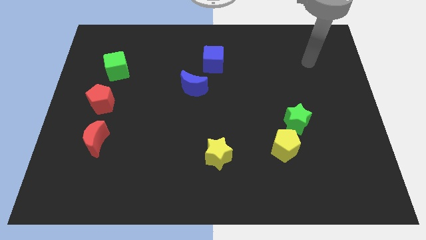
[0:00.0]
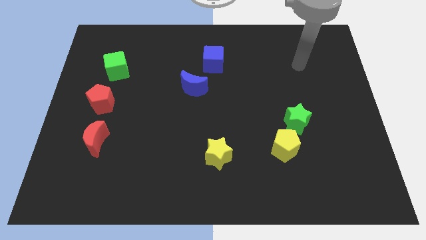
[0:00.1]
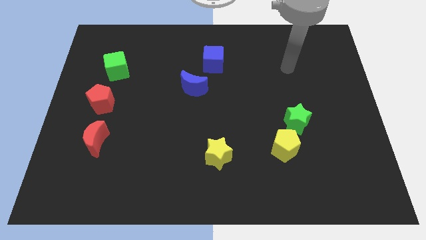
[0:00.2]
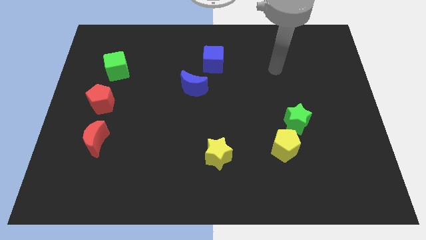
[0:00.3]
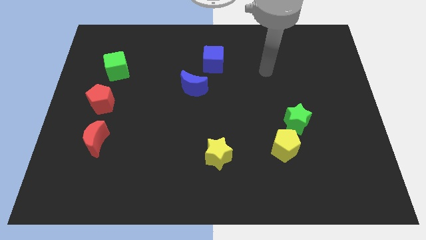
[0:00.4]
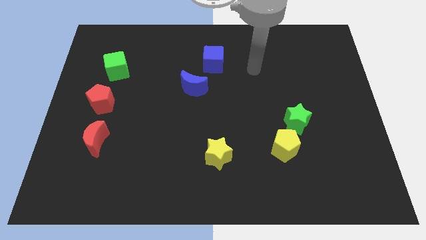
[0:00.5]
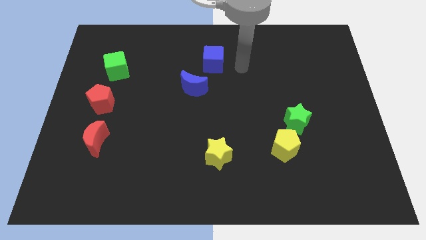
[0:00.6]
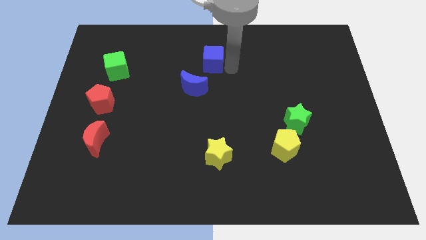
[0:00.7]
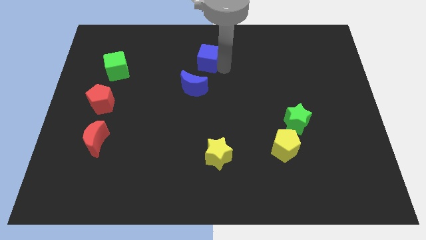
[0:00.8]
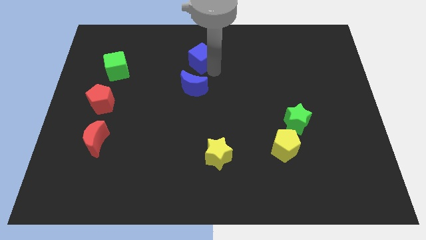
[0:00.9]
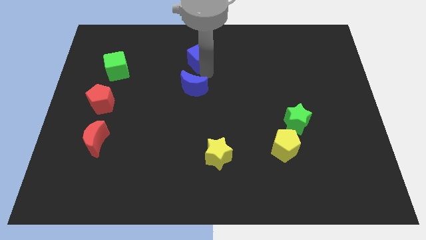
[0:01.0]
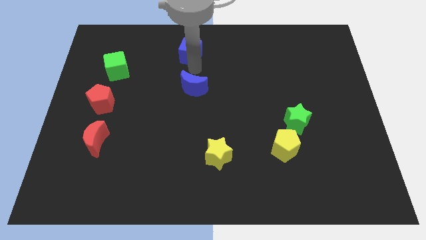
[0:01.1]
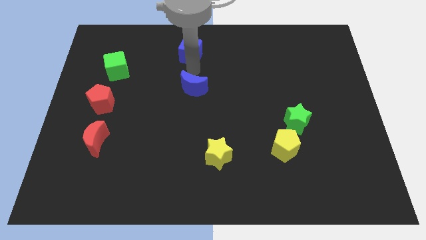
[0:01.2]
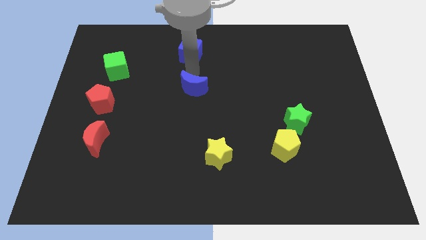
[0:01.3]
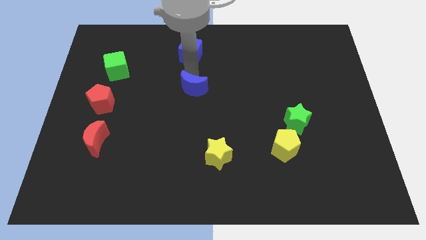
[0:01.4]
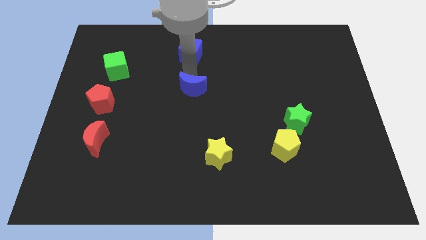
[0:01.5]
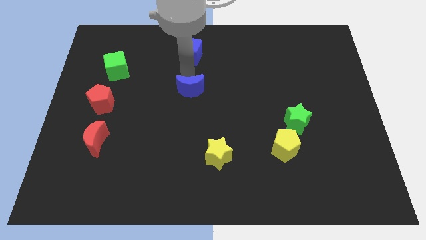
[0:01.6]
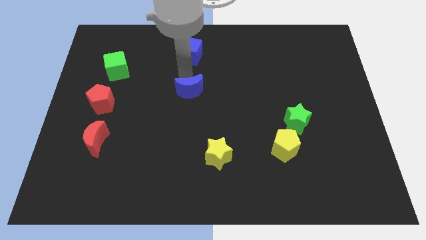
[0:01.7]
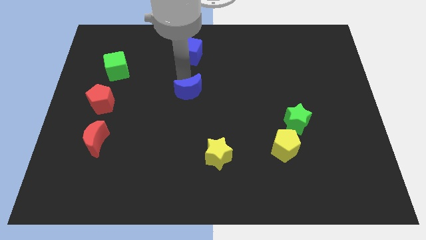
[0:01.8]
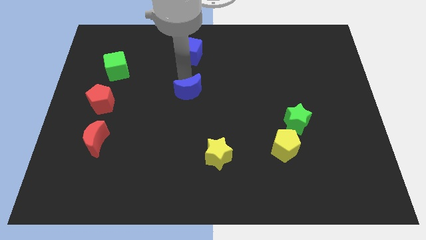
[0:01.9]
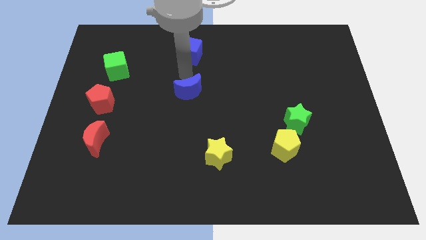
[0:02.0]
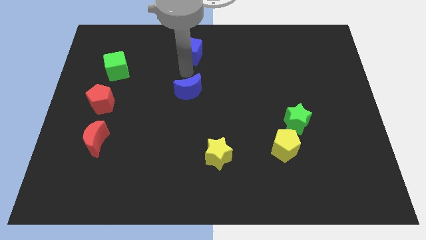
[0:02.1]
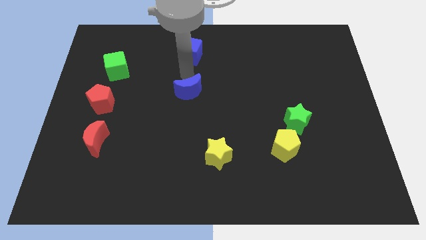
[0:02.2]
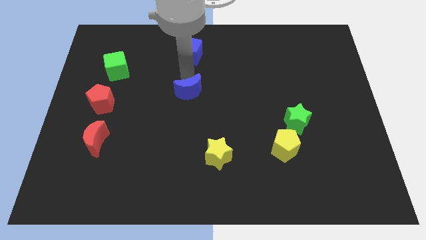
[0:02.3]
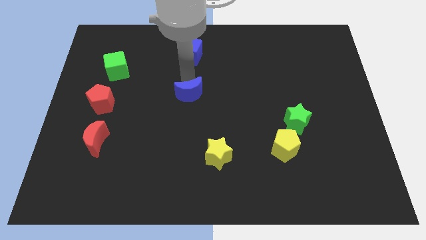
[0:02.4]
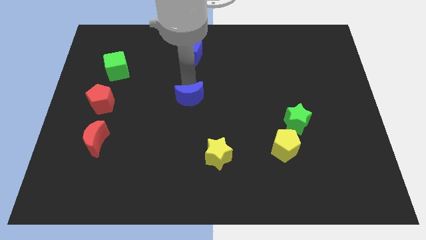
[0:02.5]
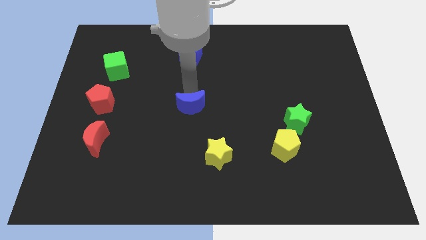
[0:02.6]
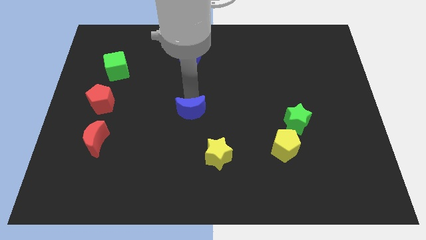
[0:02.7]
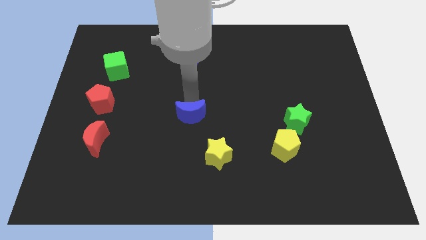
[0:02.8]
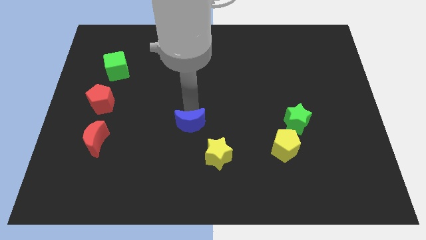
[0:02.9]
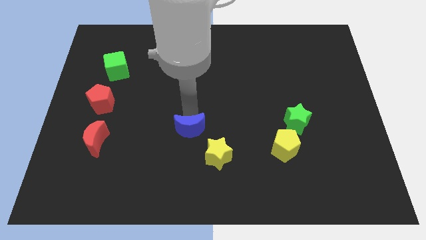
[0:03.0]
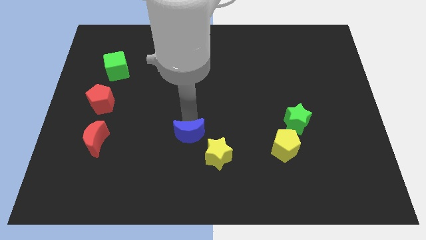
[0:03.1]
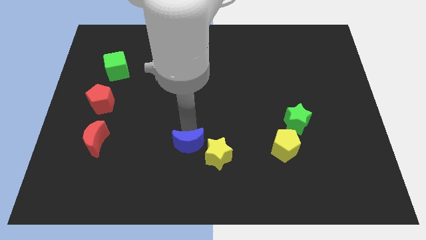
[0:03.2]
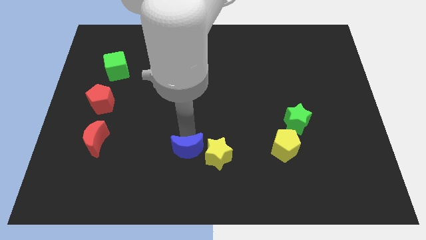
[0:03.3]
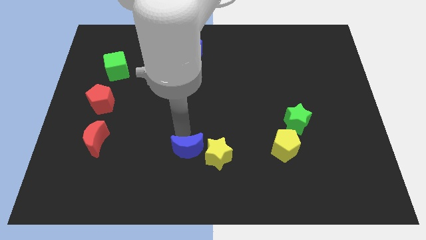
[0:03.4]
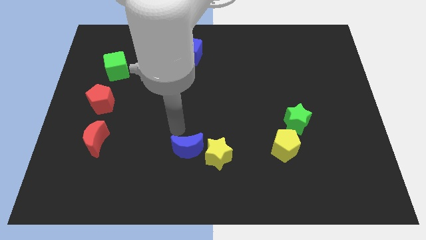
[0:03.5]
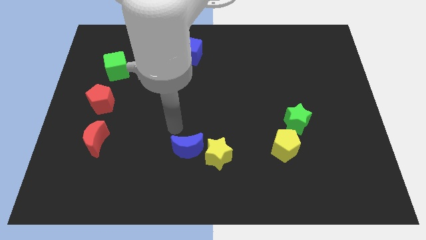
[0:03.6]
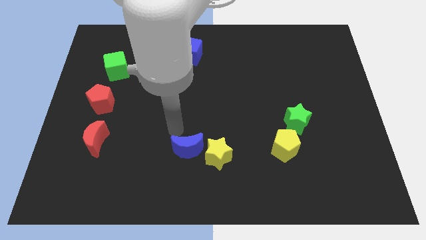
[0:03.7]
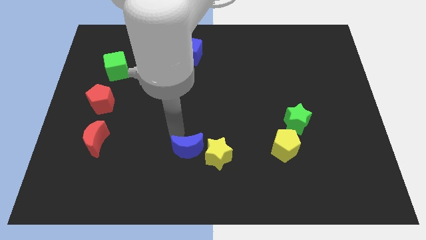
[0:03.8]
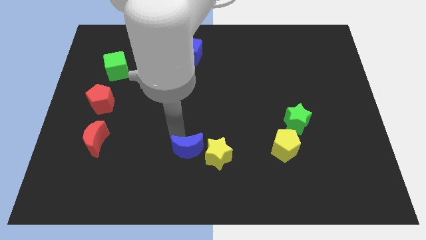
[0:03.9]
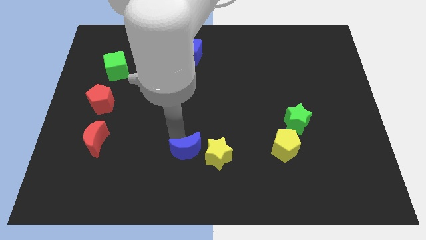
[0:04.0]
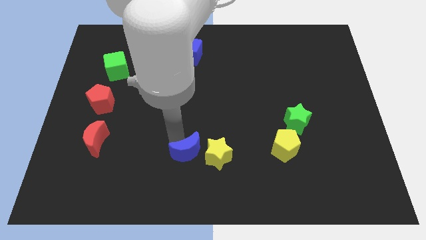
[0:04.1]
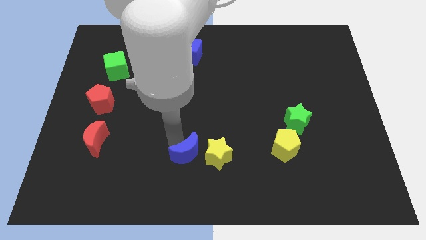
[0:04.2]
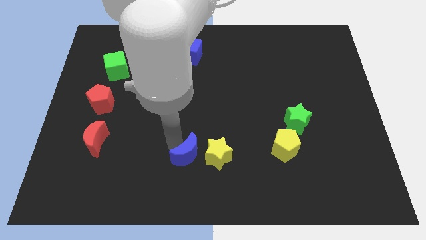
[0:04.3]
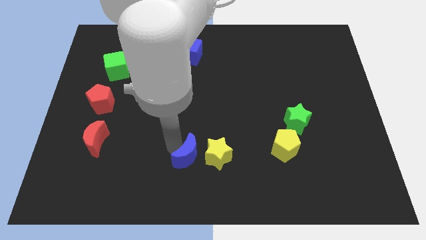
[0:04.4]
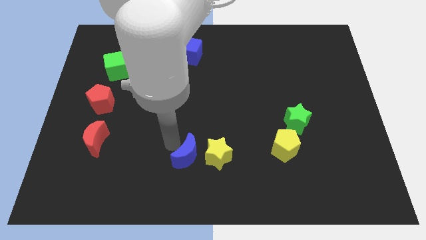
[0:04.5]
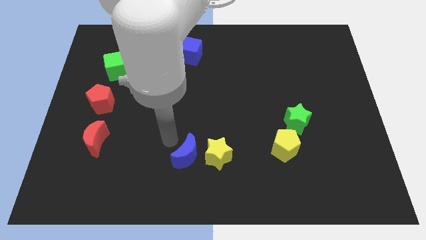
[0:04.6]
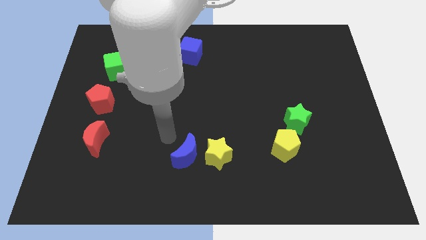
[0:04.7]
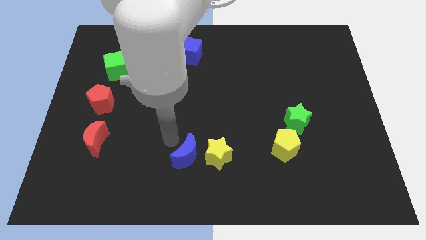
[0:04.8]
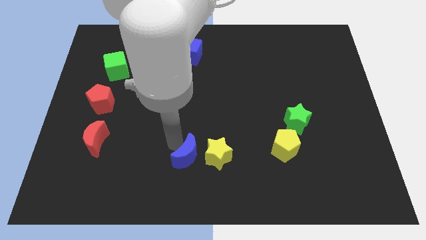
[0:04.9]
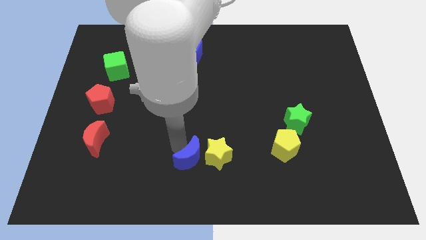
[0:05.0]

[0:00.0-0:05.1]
move the blue moon to the bottom side

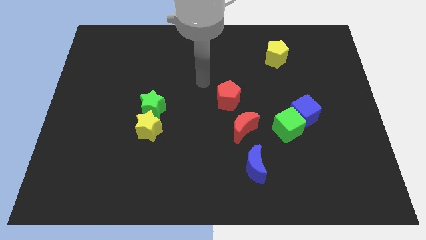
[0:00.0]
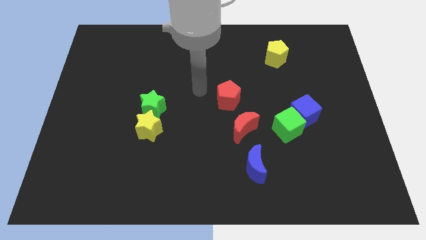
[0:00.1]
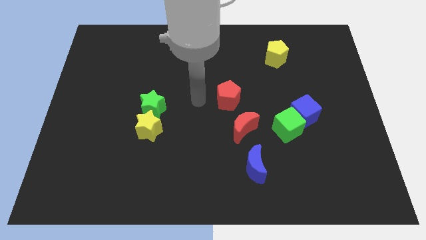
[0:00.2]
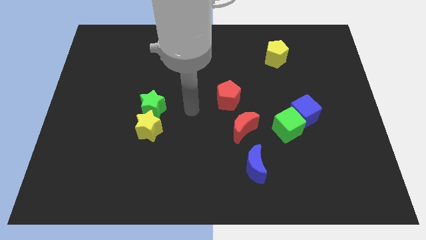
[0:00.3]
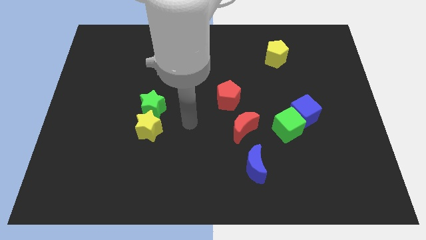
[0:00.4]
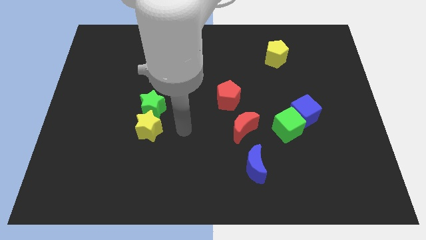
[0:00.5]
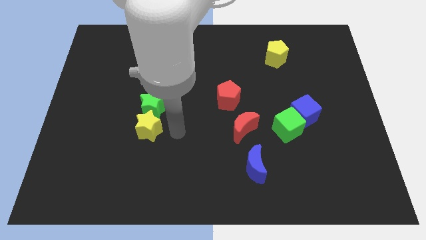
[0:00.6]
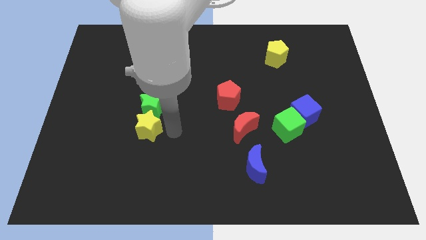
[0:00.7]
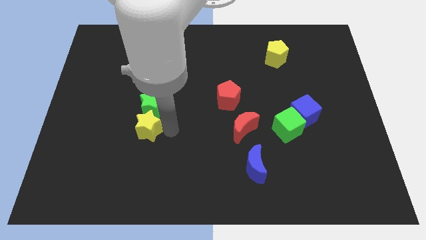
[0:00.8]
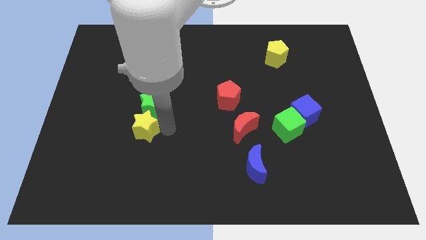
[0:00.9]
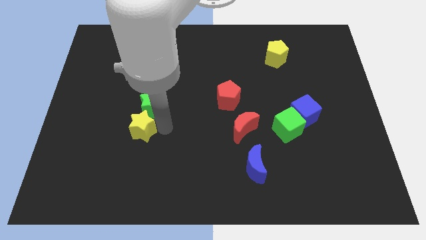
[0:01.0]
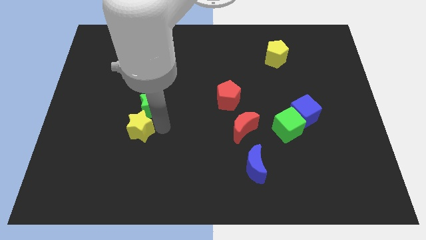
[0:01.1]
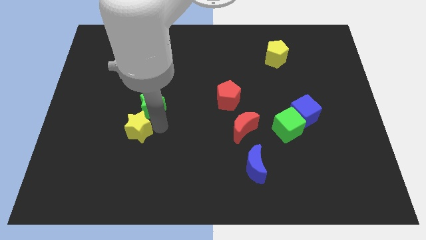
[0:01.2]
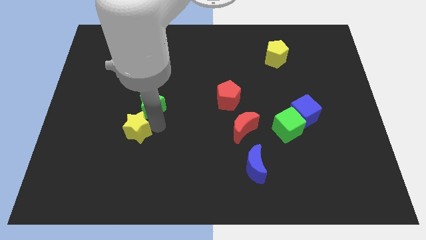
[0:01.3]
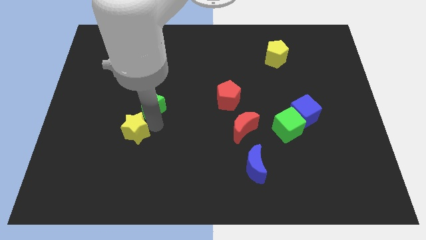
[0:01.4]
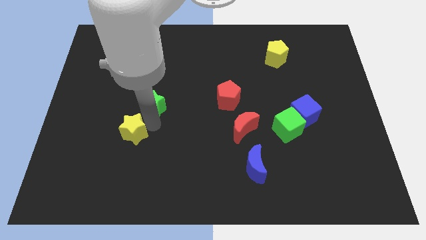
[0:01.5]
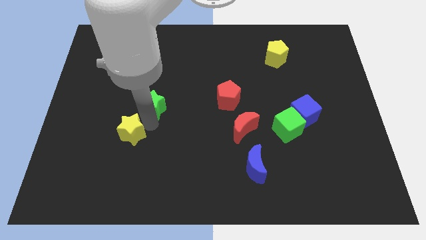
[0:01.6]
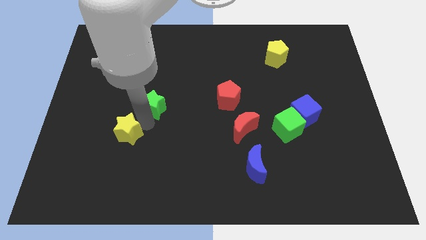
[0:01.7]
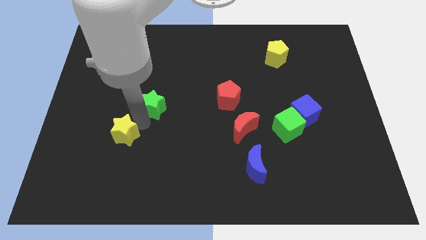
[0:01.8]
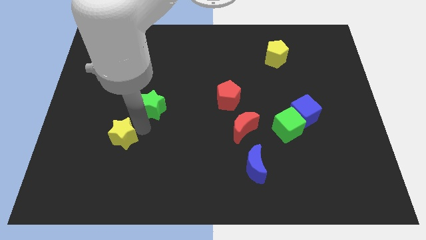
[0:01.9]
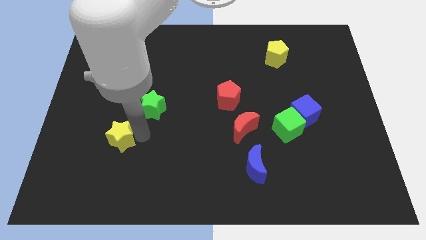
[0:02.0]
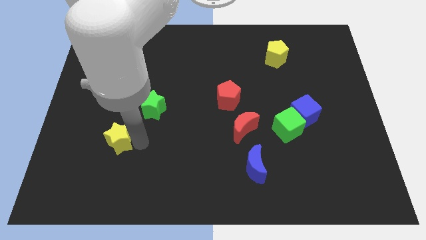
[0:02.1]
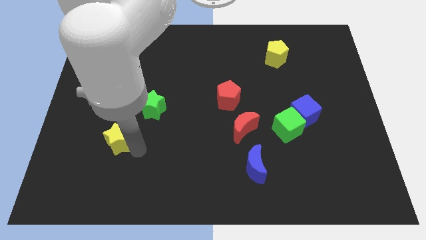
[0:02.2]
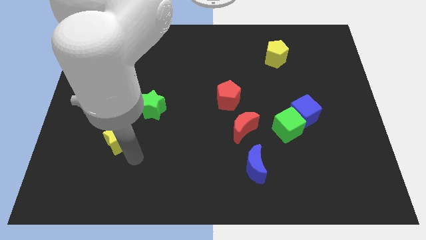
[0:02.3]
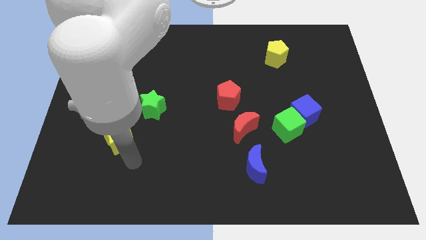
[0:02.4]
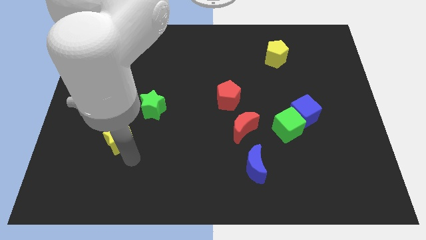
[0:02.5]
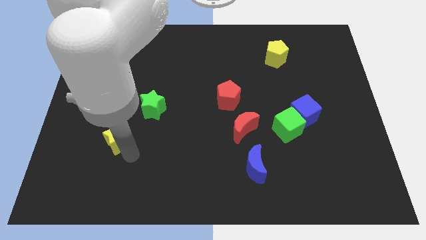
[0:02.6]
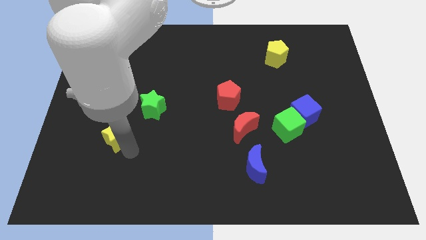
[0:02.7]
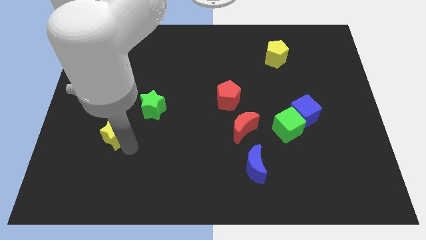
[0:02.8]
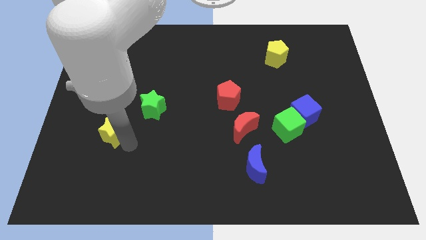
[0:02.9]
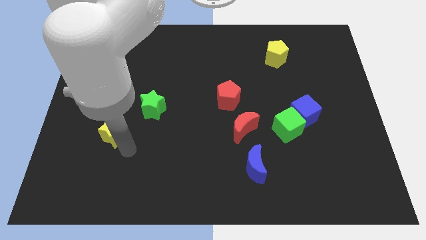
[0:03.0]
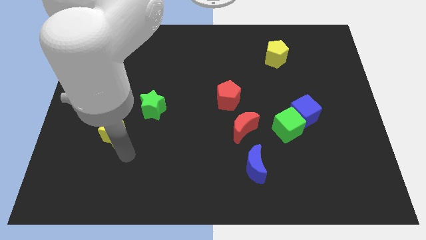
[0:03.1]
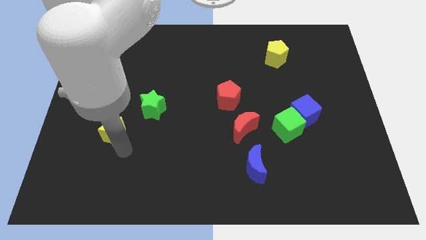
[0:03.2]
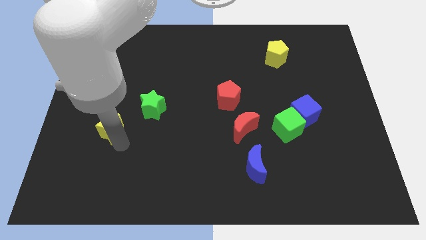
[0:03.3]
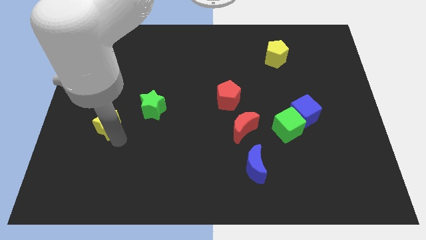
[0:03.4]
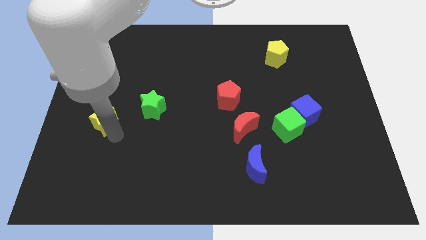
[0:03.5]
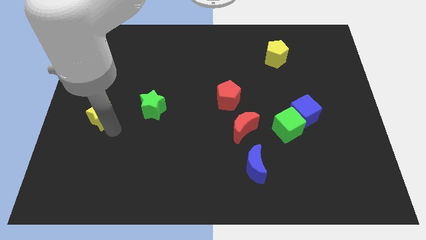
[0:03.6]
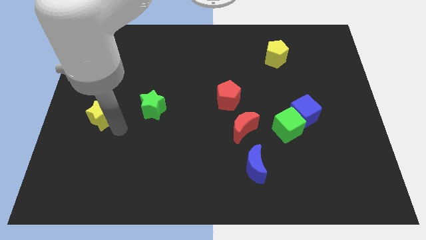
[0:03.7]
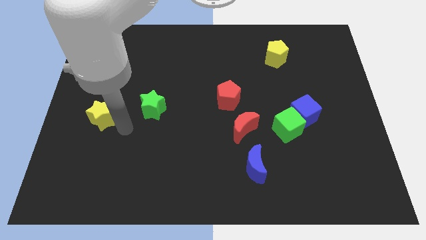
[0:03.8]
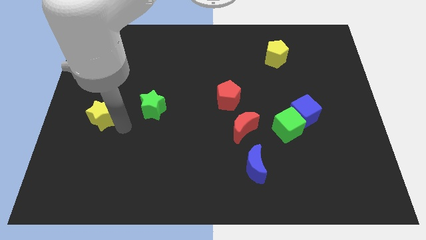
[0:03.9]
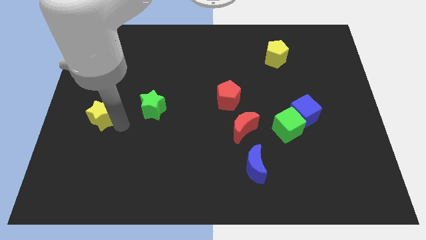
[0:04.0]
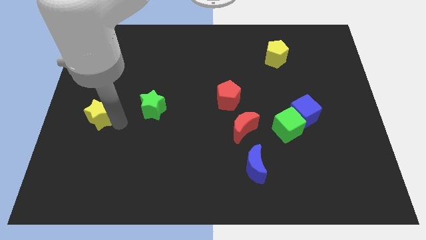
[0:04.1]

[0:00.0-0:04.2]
slide the yellow star to the left side of the board
